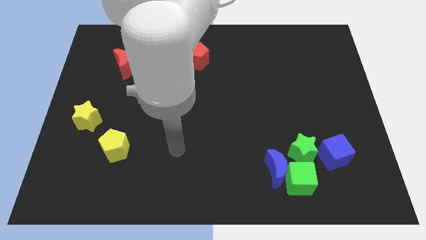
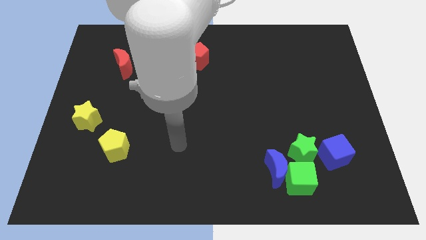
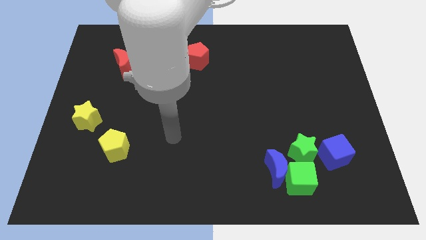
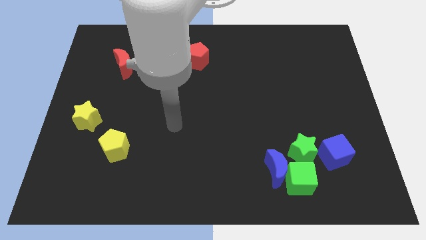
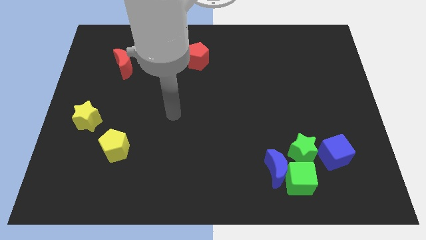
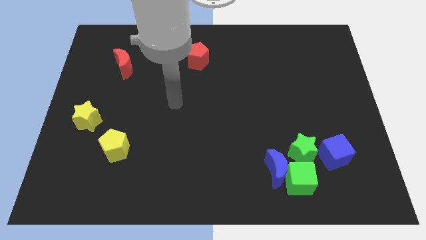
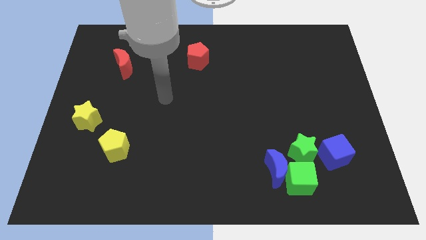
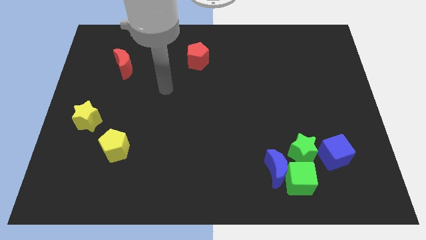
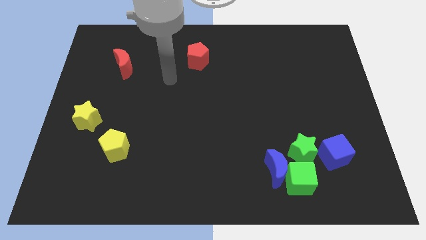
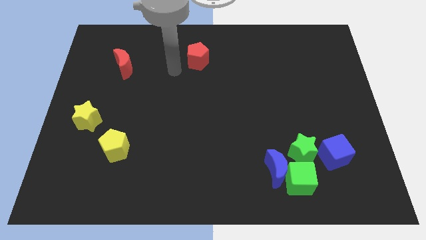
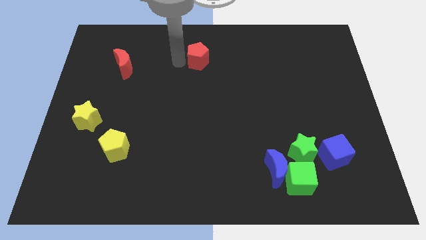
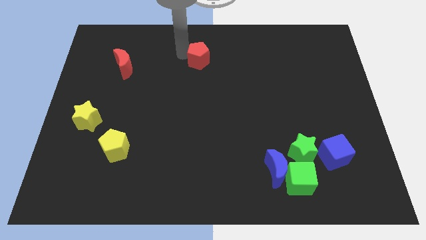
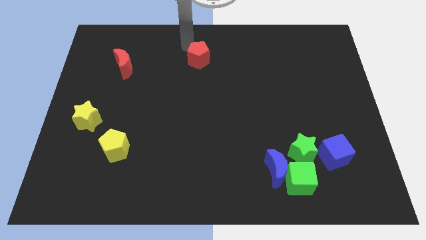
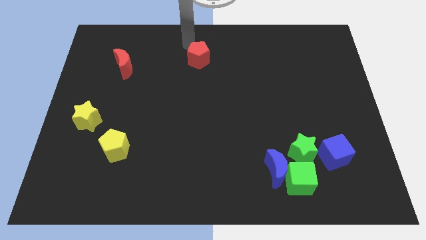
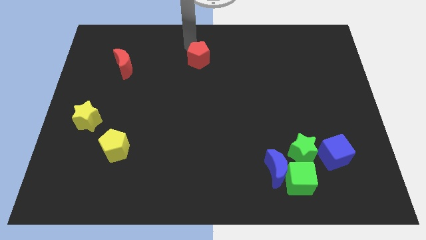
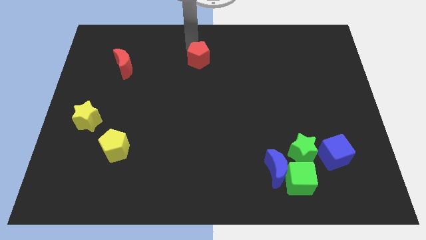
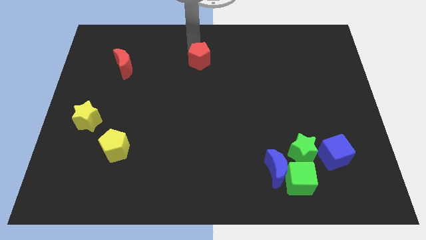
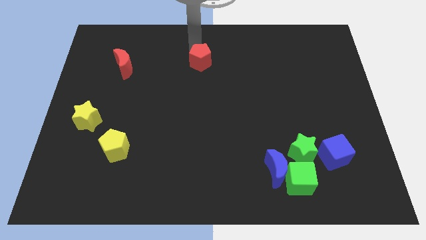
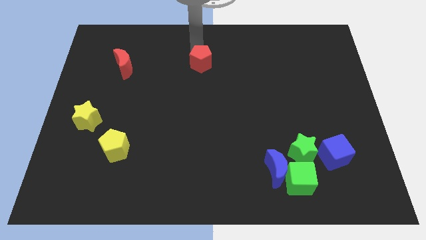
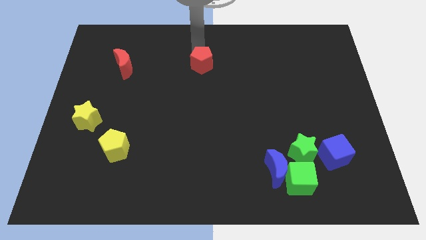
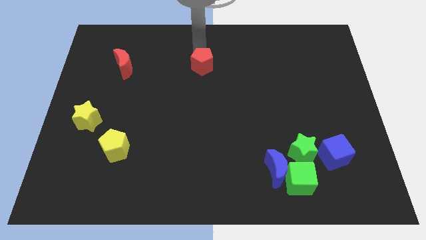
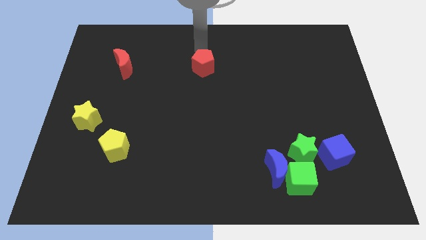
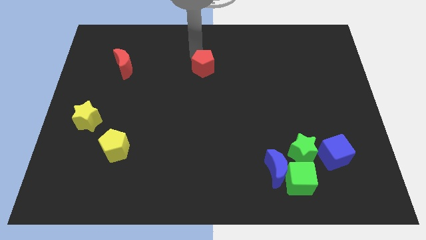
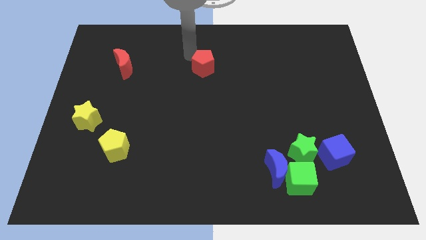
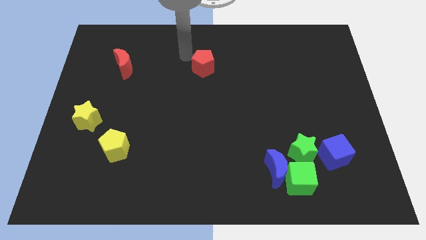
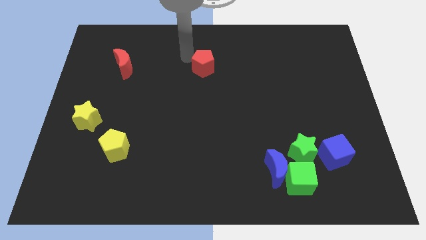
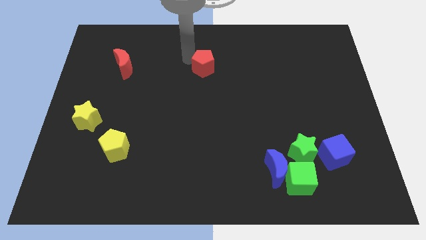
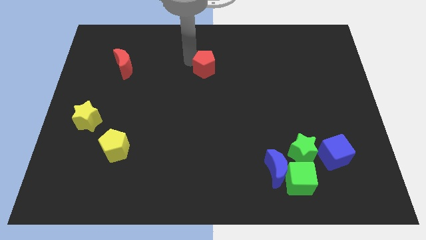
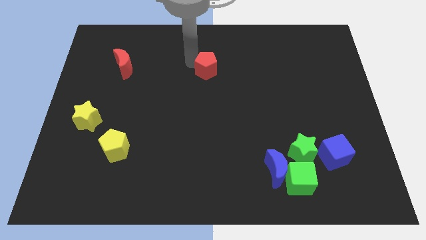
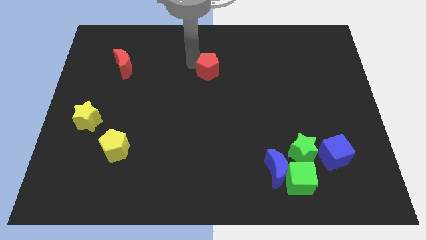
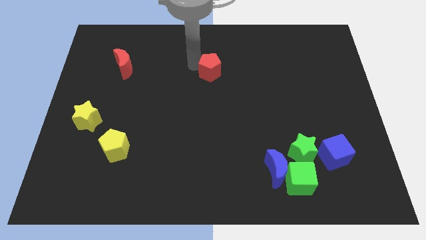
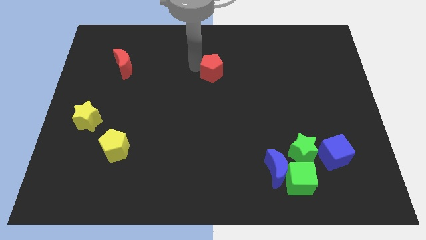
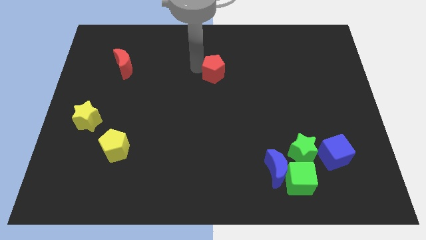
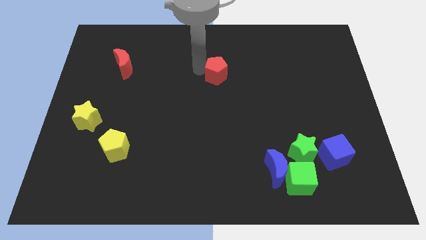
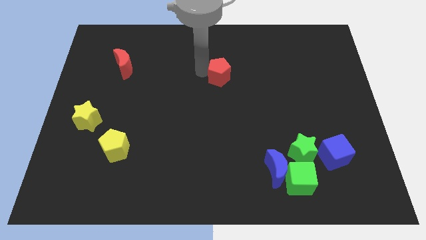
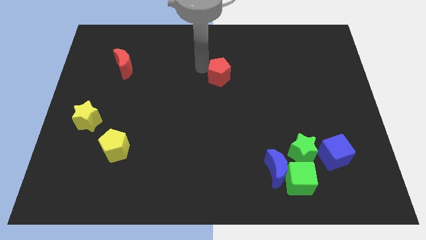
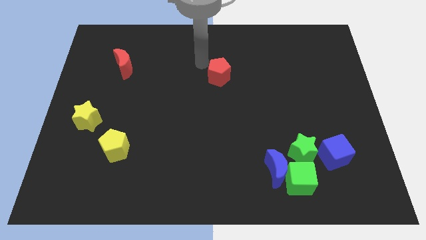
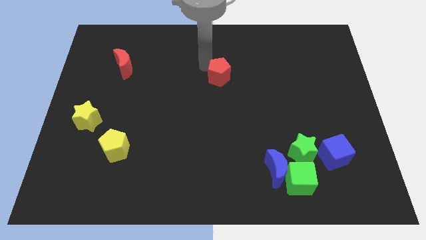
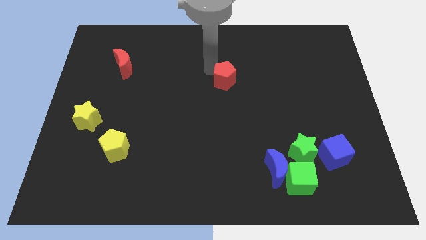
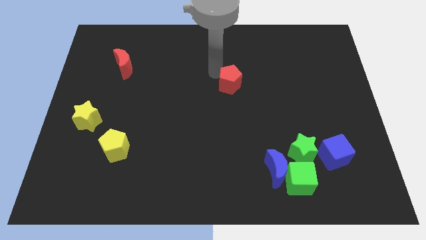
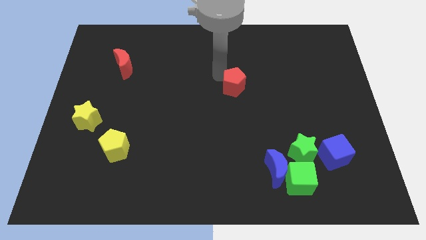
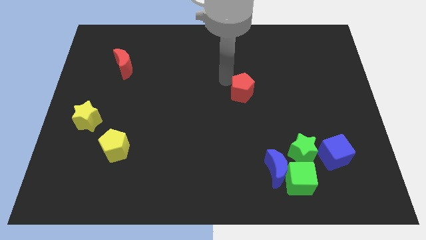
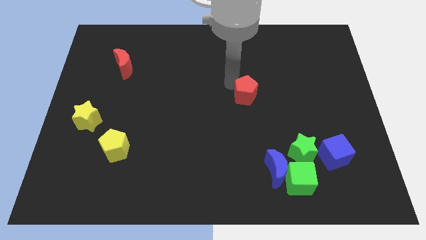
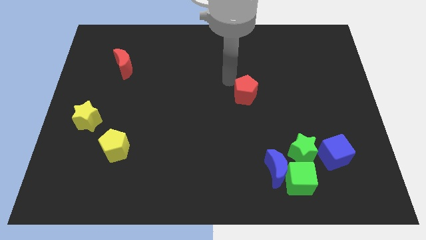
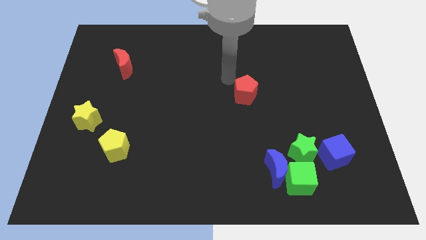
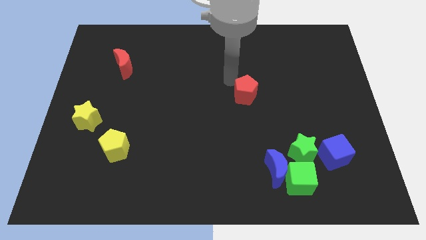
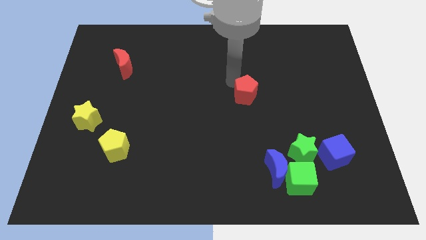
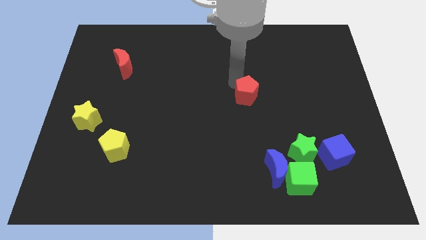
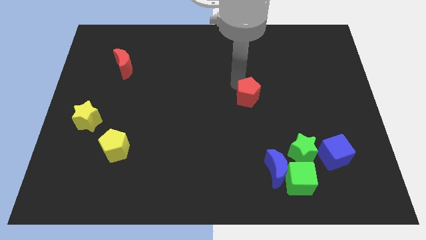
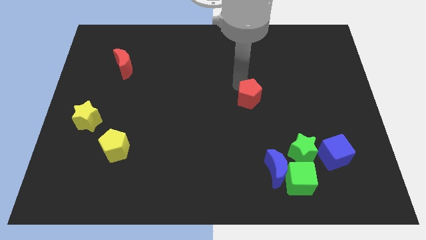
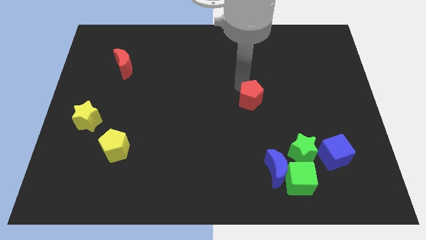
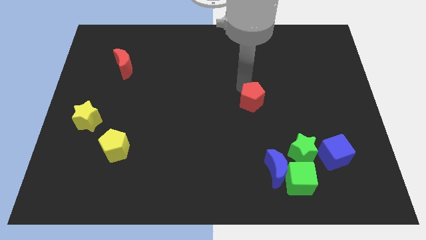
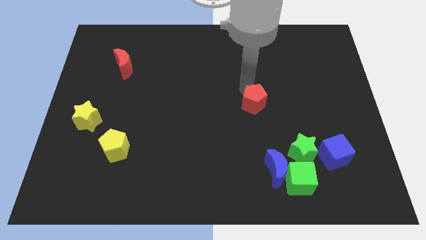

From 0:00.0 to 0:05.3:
push the red pentagon down and then right

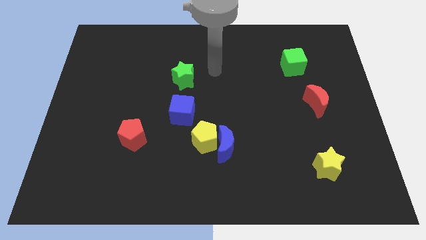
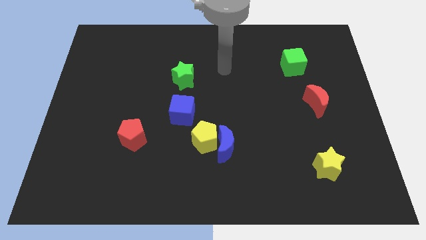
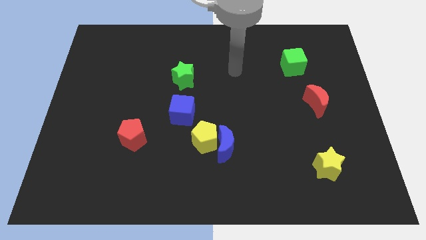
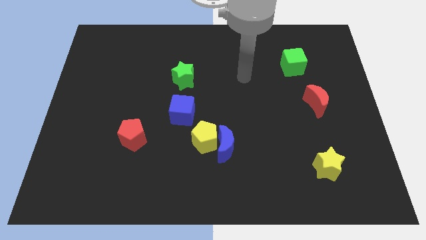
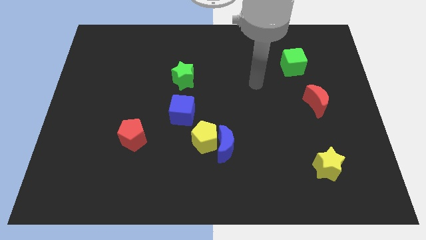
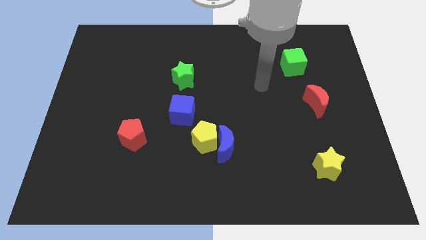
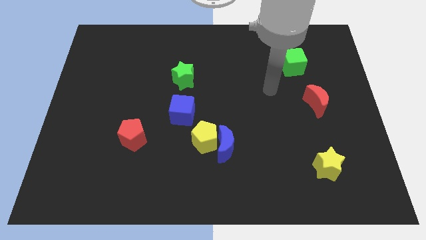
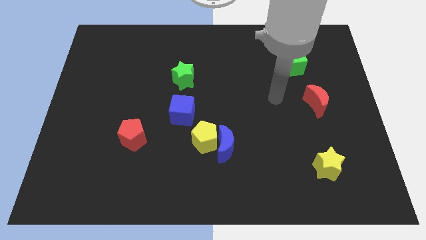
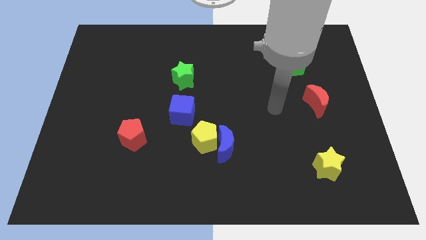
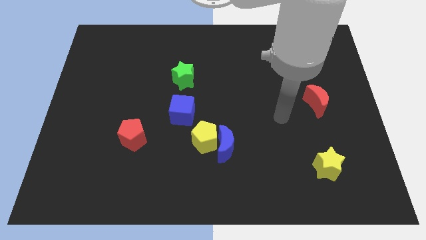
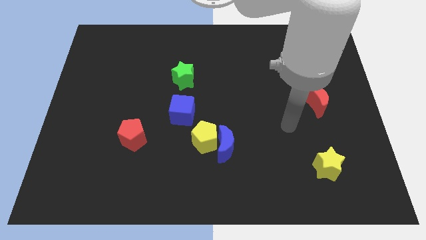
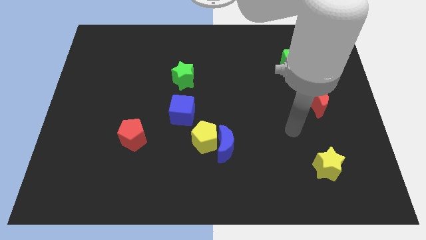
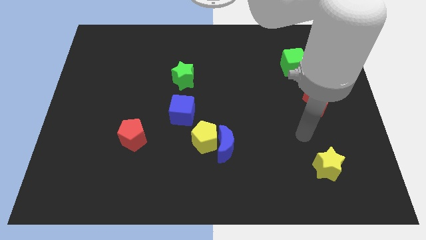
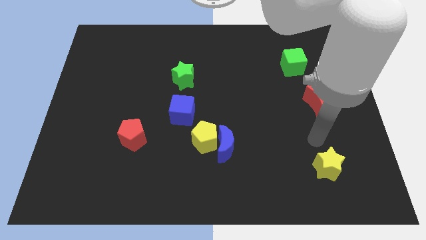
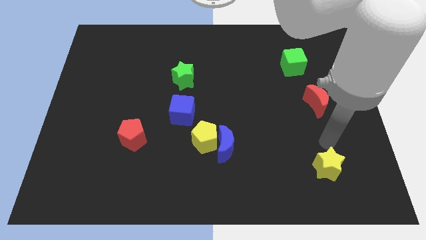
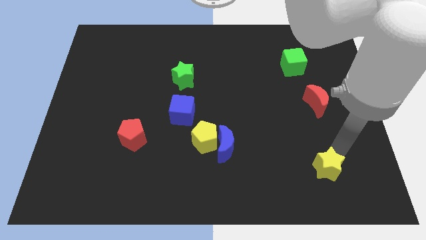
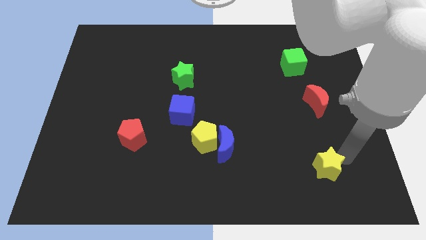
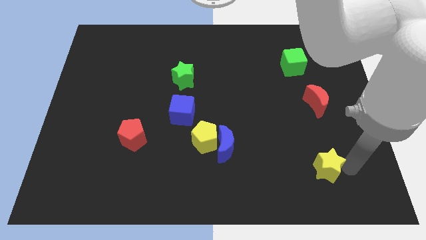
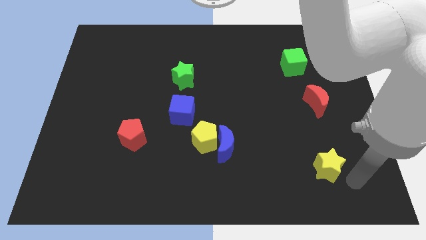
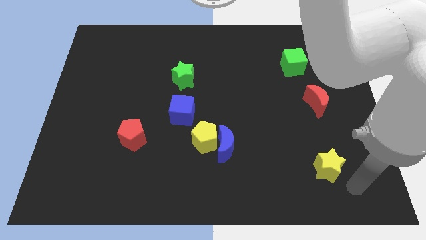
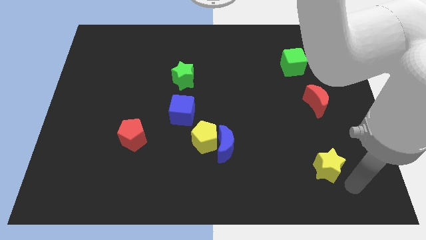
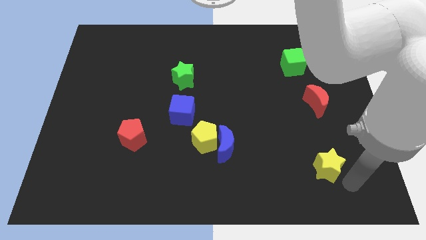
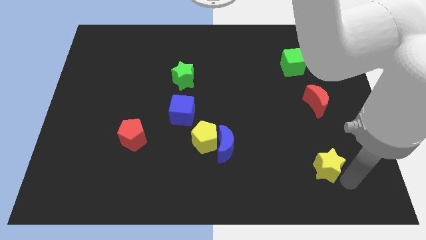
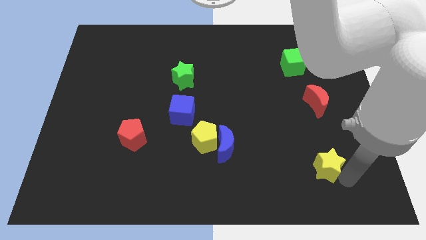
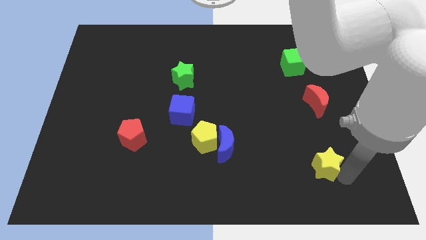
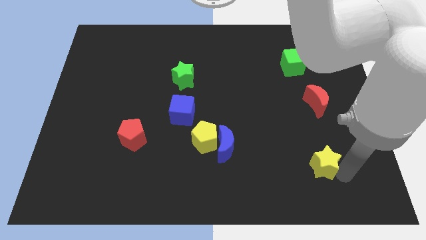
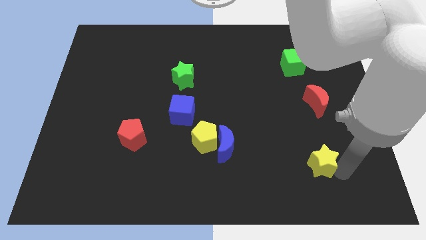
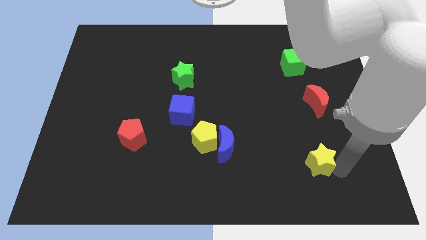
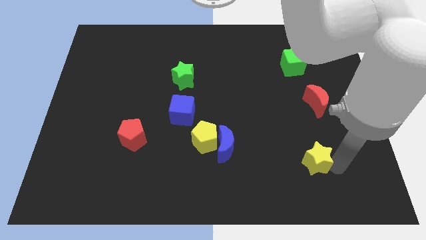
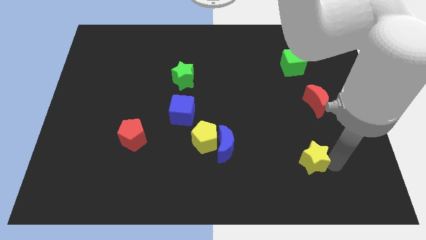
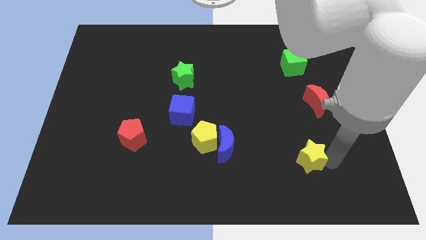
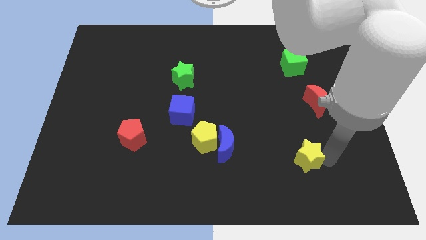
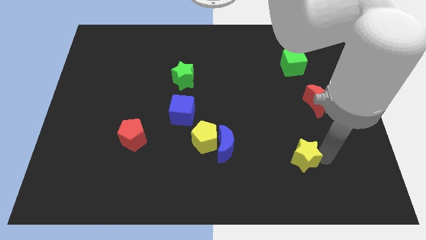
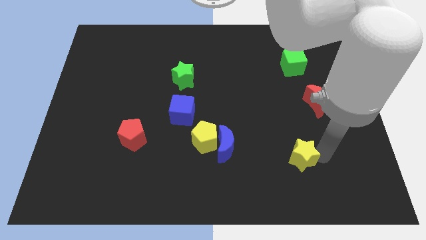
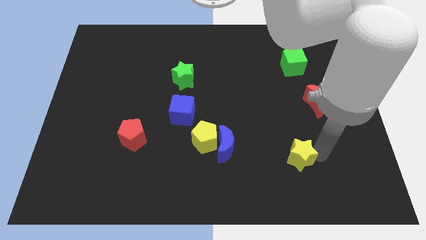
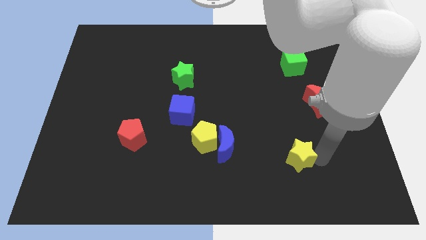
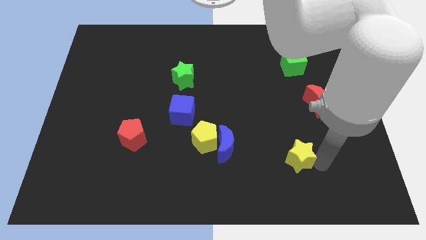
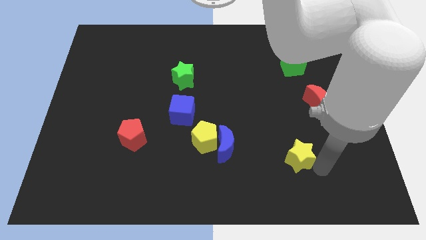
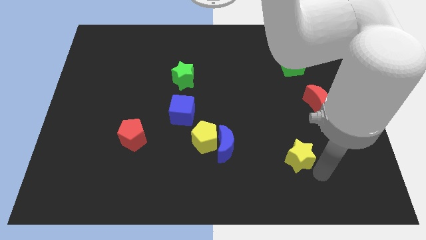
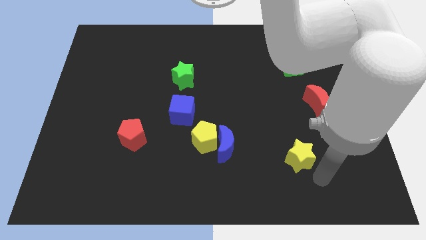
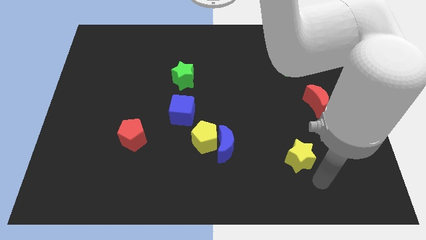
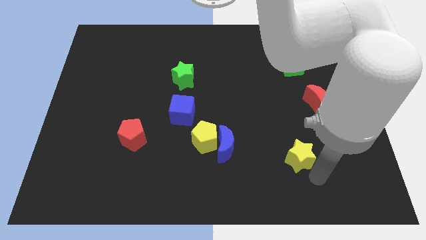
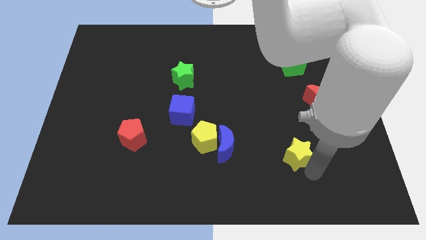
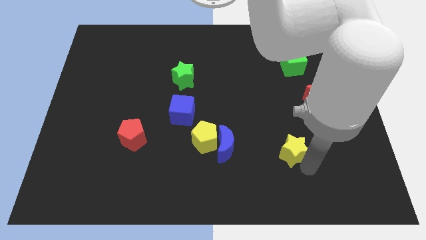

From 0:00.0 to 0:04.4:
slightly move the yellow star diagonally upwards and to the left
